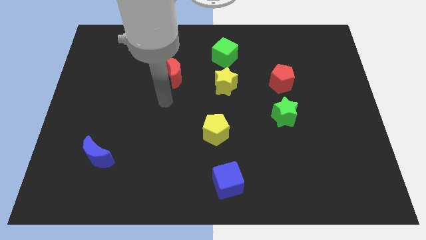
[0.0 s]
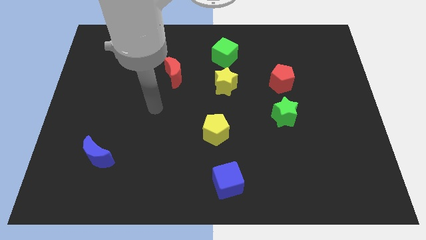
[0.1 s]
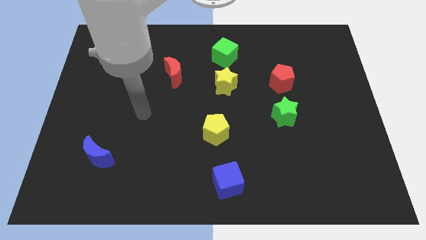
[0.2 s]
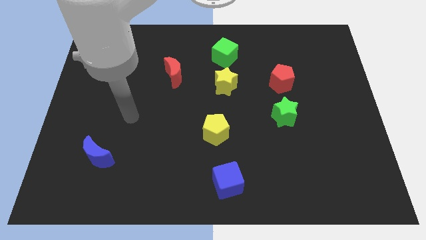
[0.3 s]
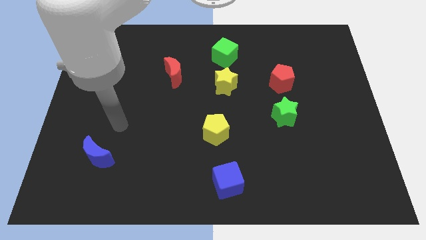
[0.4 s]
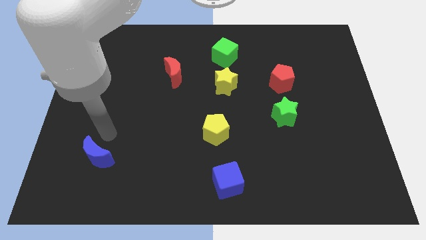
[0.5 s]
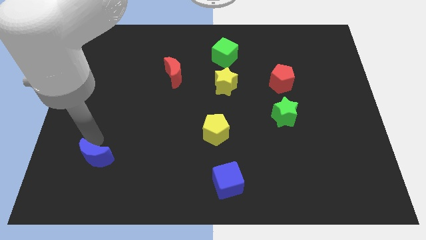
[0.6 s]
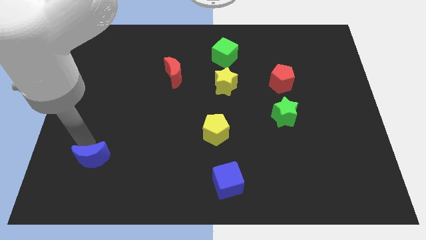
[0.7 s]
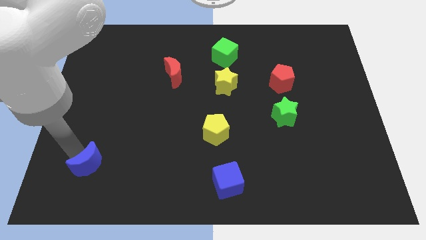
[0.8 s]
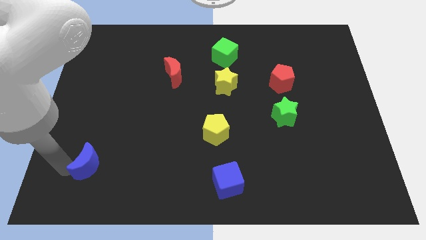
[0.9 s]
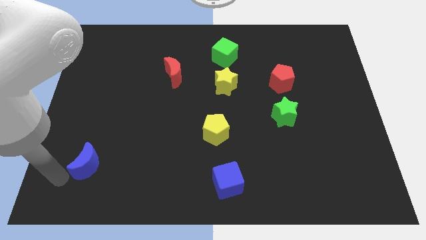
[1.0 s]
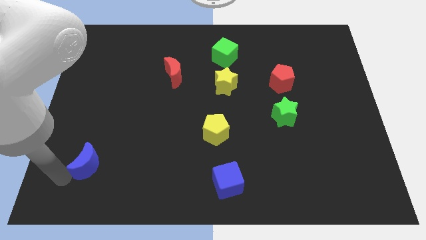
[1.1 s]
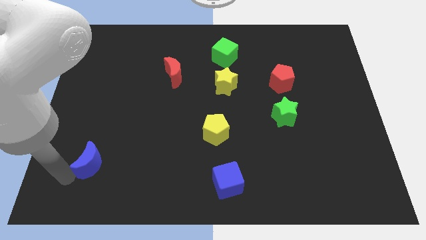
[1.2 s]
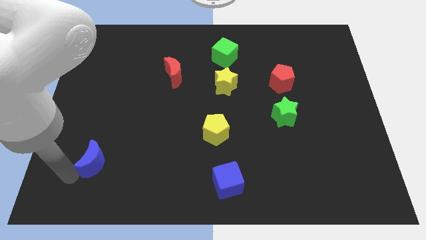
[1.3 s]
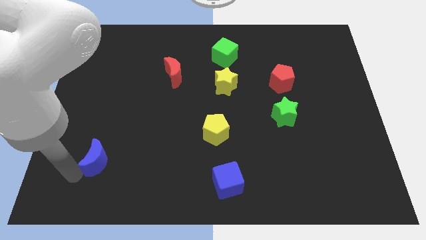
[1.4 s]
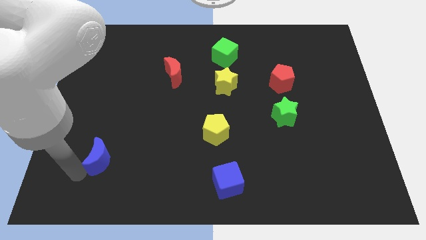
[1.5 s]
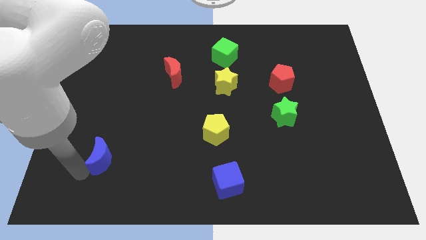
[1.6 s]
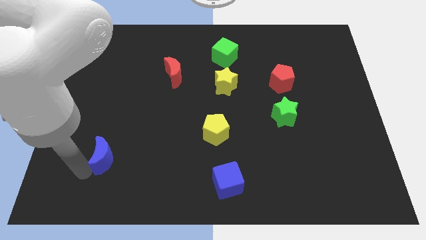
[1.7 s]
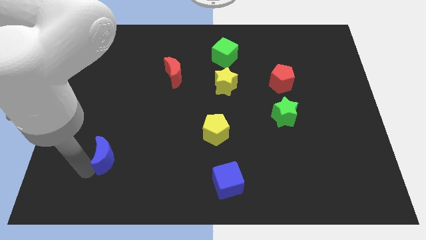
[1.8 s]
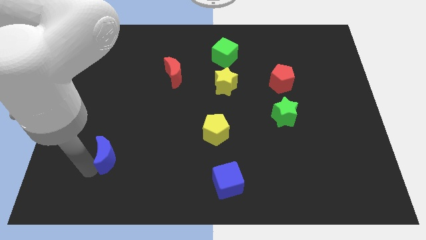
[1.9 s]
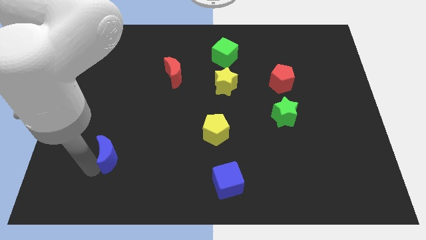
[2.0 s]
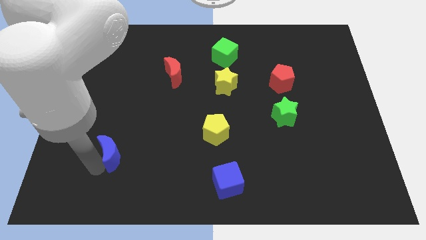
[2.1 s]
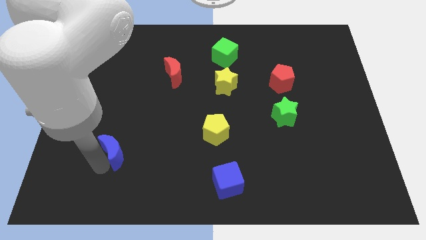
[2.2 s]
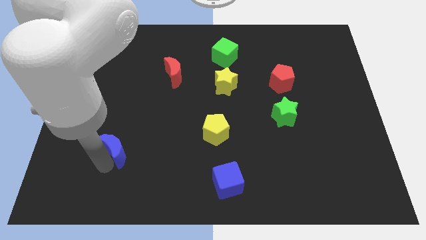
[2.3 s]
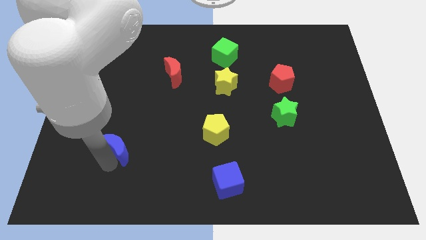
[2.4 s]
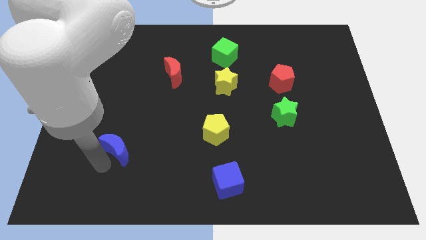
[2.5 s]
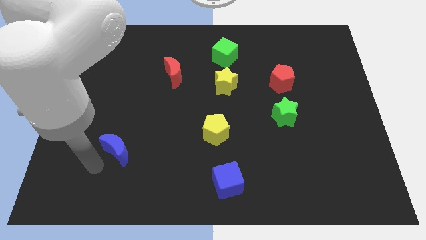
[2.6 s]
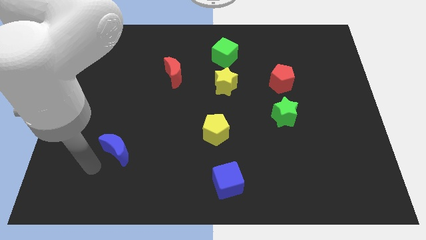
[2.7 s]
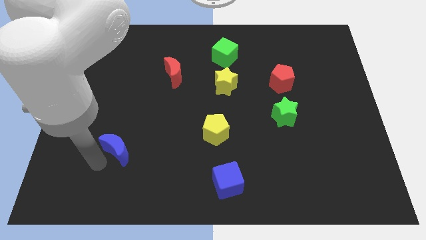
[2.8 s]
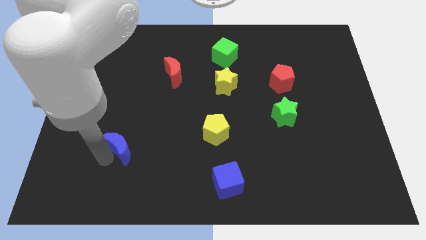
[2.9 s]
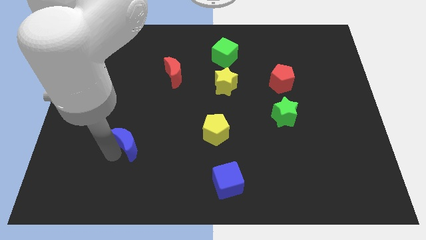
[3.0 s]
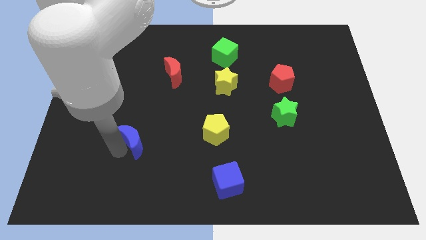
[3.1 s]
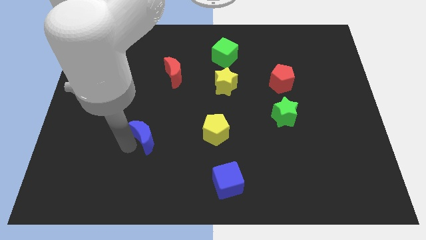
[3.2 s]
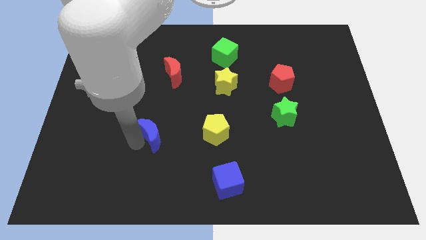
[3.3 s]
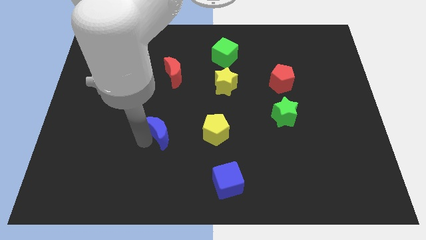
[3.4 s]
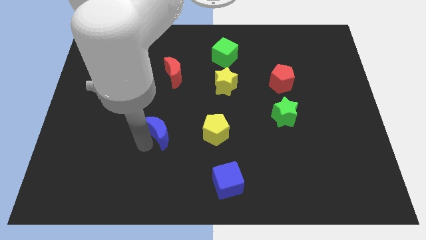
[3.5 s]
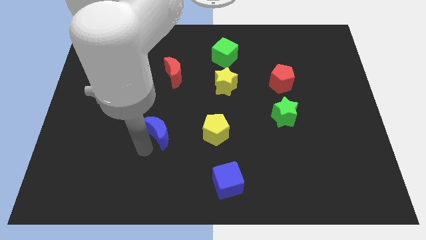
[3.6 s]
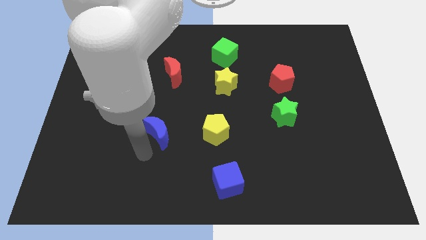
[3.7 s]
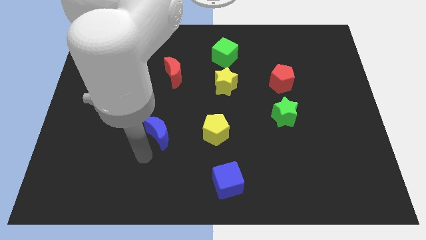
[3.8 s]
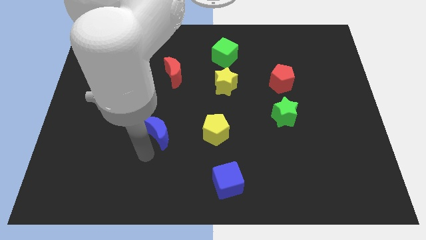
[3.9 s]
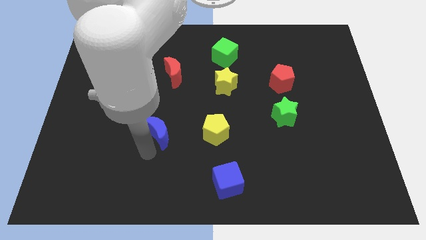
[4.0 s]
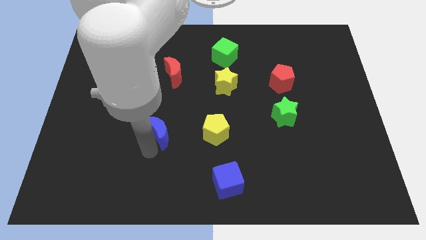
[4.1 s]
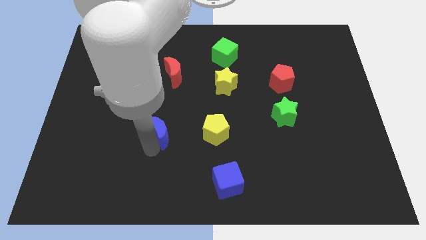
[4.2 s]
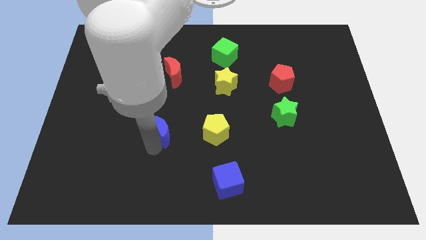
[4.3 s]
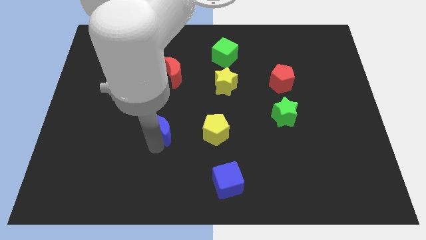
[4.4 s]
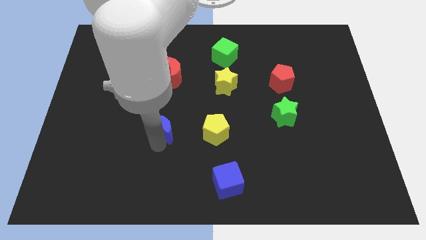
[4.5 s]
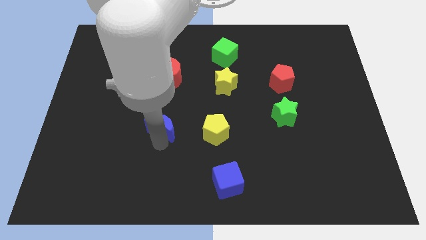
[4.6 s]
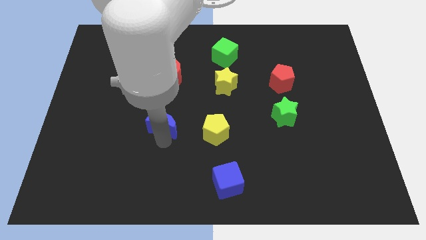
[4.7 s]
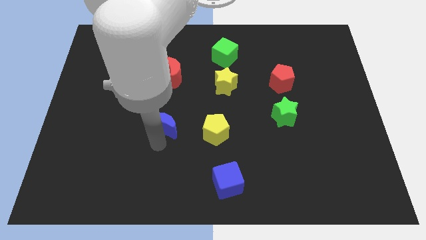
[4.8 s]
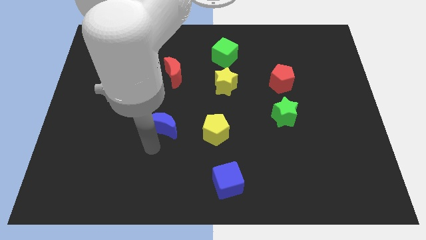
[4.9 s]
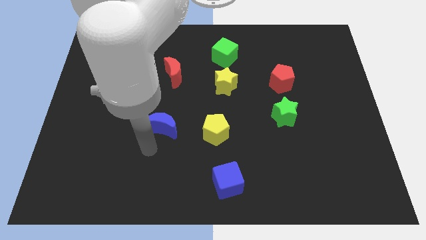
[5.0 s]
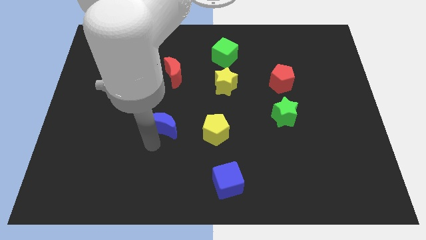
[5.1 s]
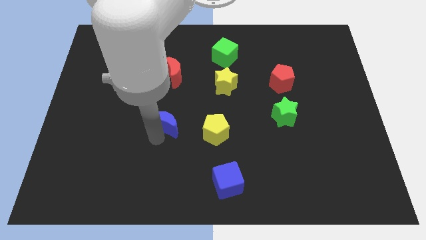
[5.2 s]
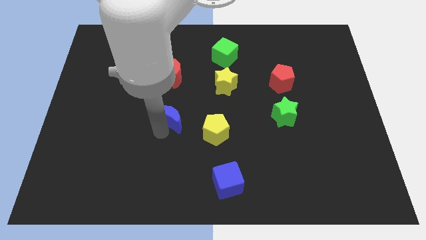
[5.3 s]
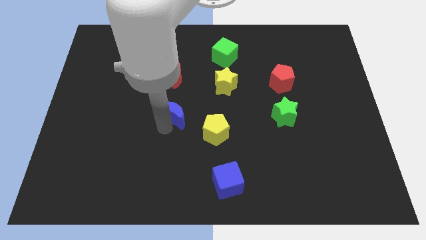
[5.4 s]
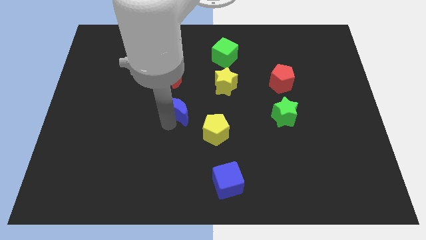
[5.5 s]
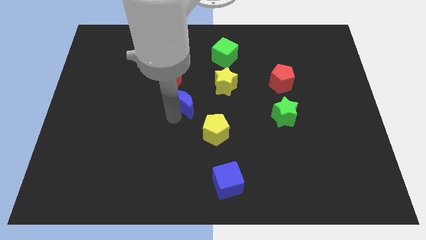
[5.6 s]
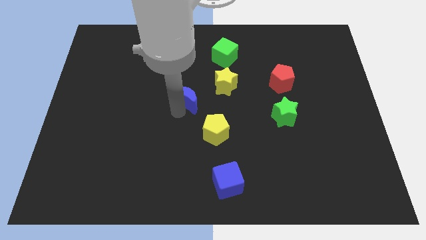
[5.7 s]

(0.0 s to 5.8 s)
move the blue moon diagonally down and to the right of the red moon

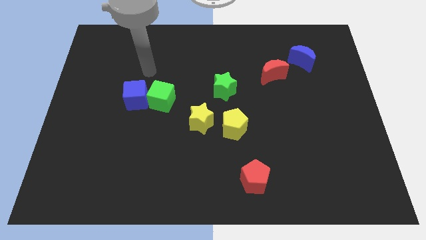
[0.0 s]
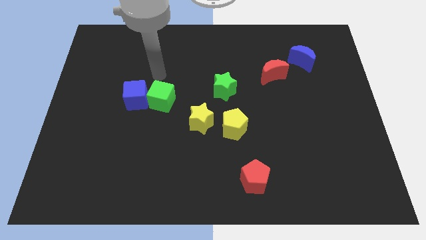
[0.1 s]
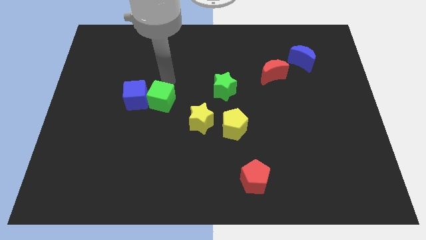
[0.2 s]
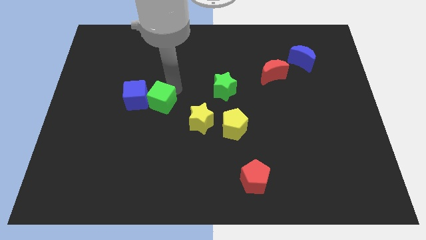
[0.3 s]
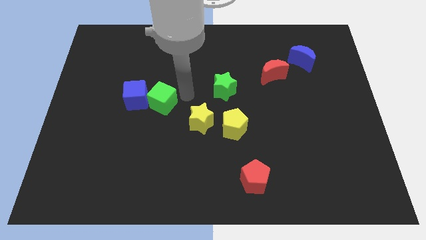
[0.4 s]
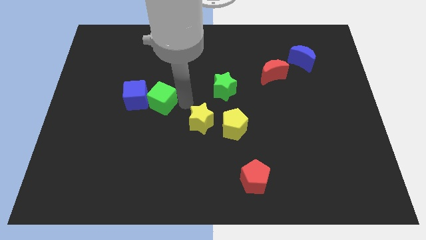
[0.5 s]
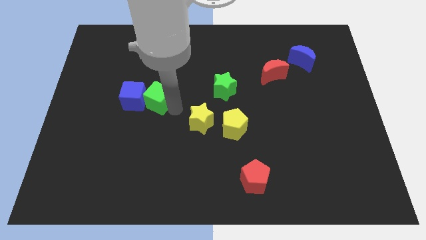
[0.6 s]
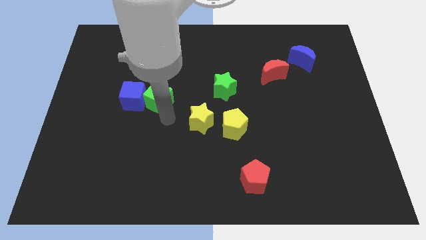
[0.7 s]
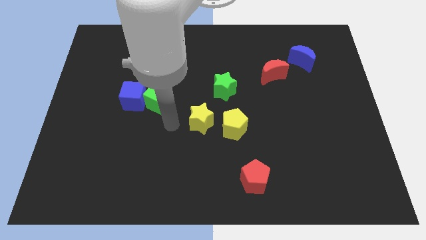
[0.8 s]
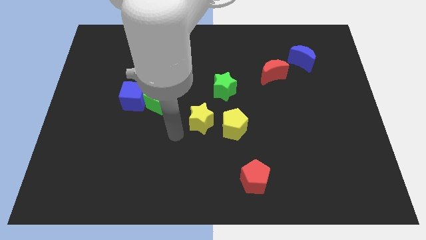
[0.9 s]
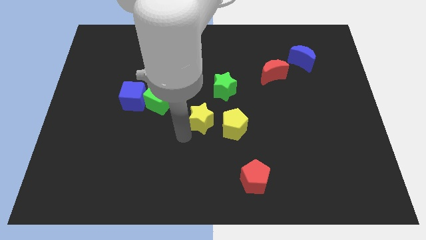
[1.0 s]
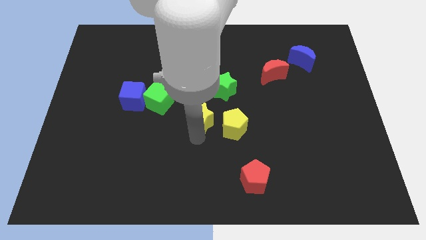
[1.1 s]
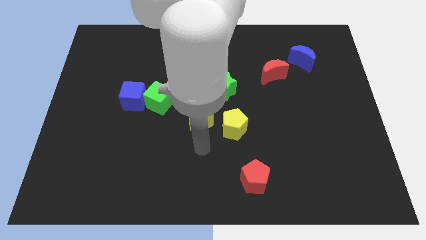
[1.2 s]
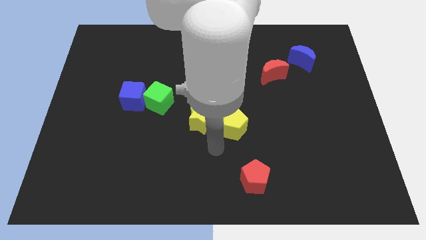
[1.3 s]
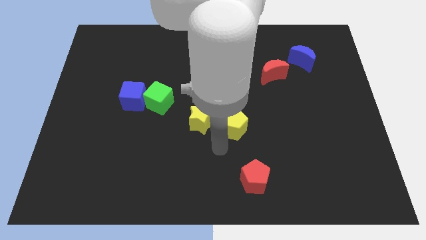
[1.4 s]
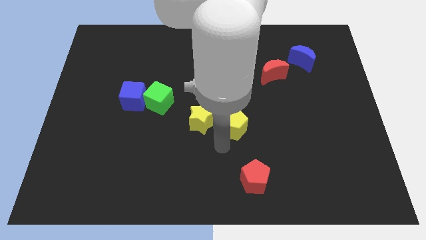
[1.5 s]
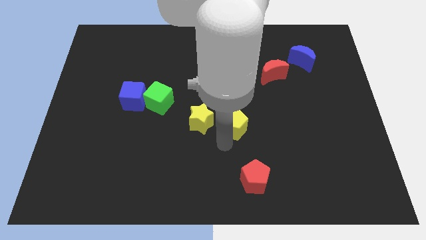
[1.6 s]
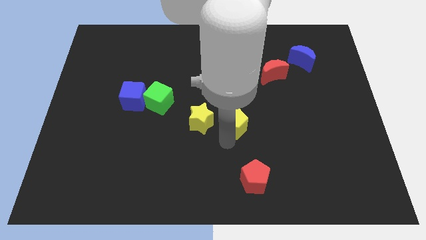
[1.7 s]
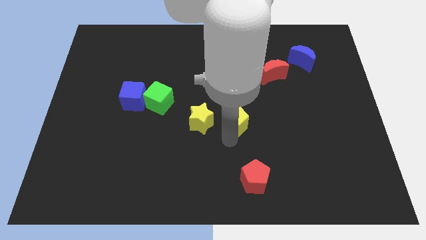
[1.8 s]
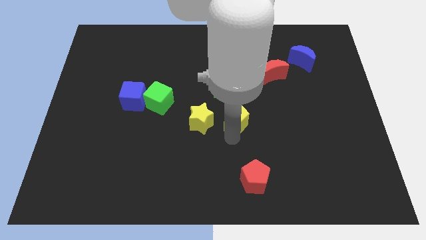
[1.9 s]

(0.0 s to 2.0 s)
put the yellow pentagon to the bottom right side of the green star
